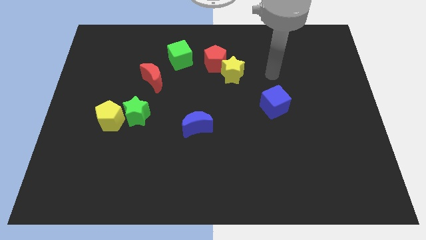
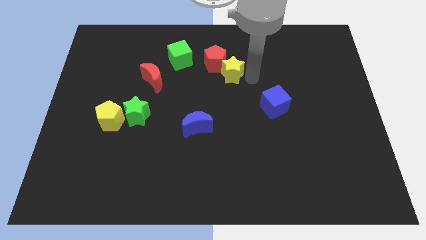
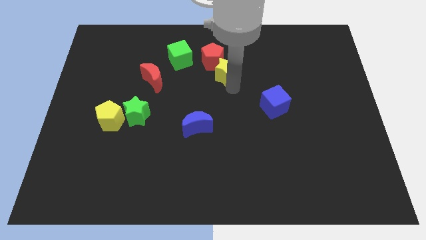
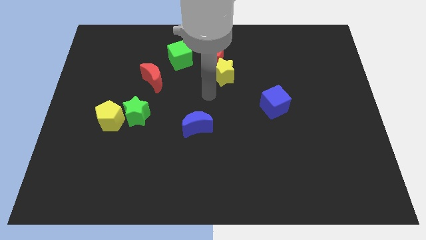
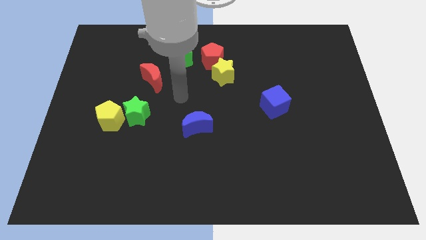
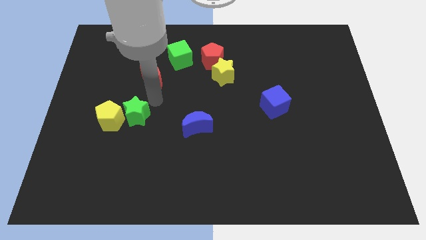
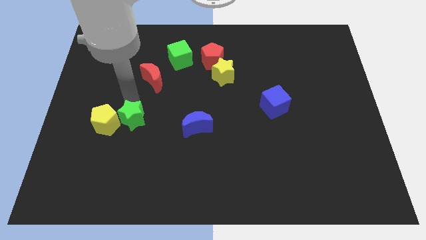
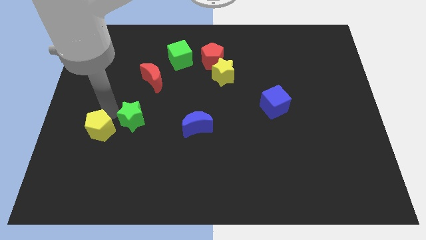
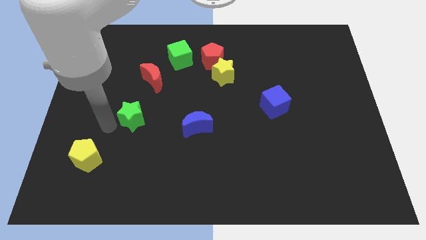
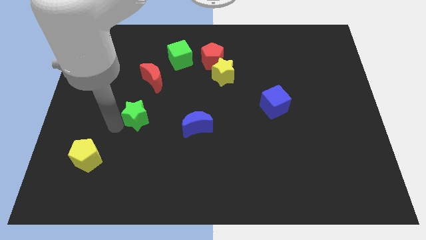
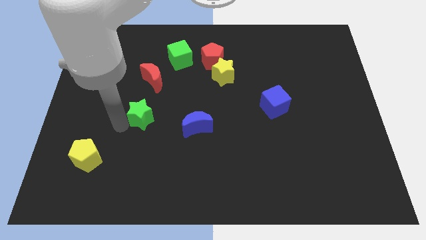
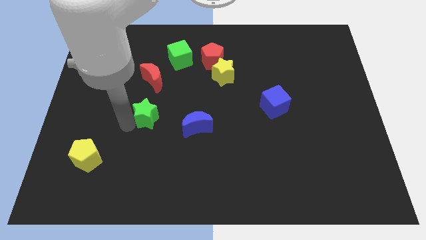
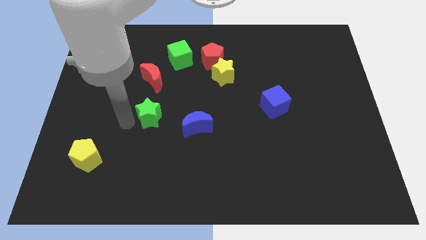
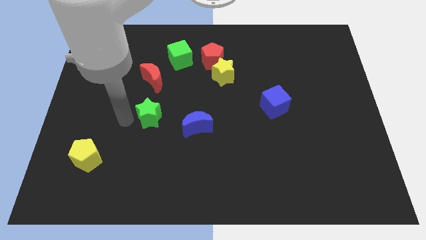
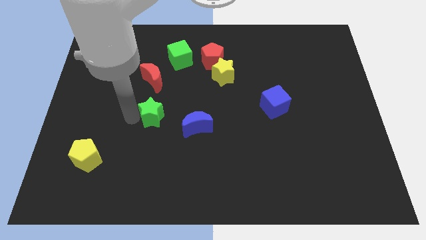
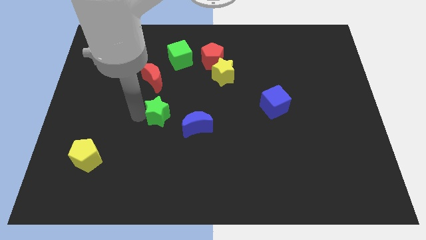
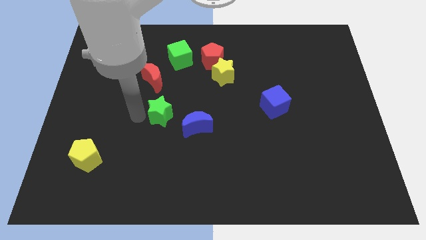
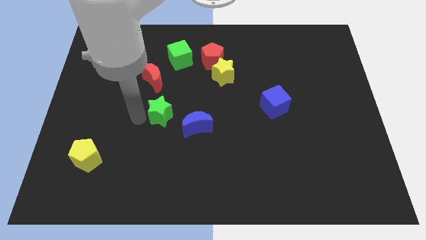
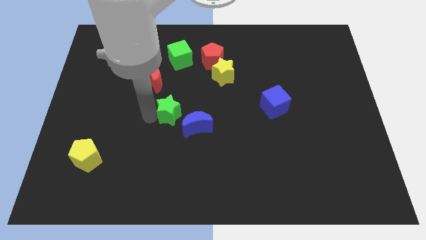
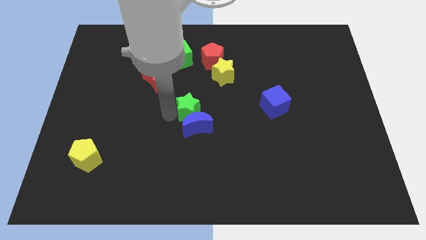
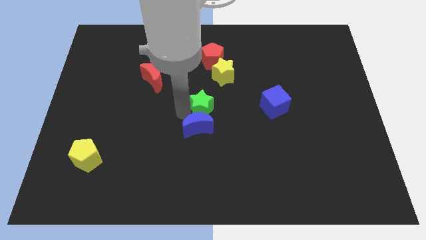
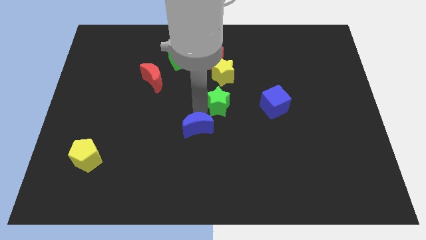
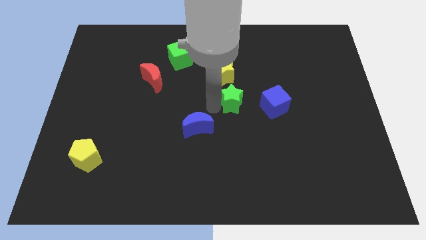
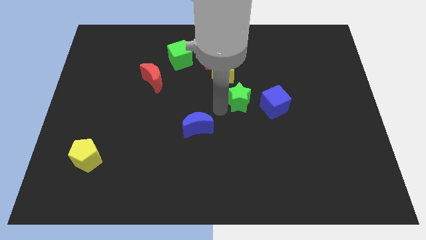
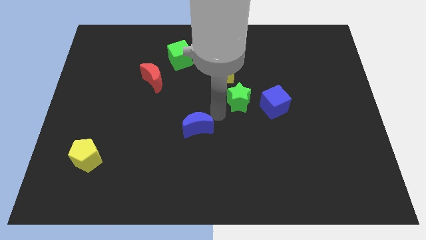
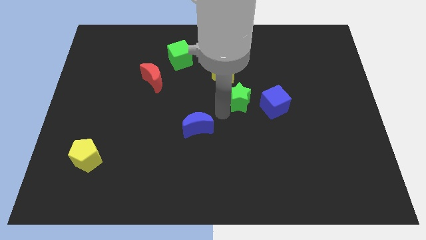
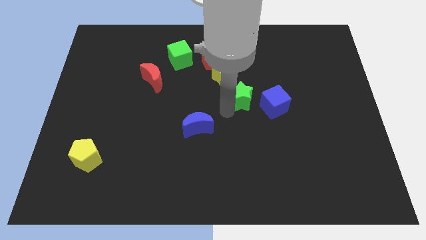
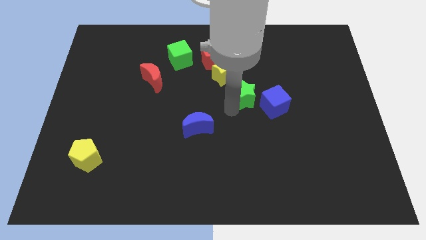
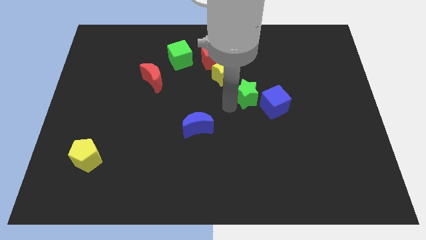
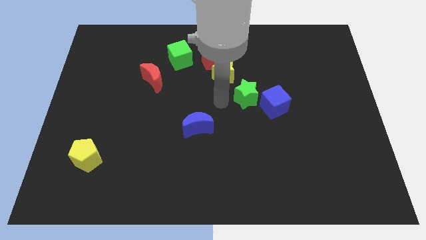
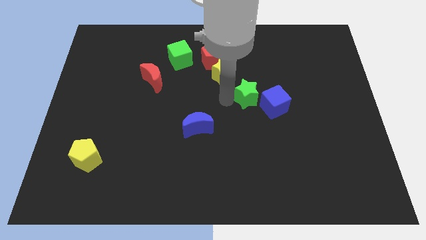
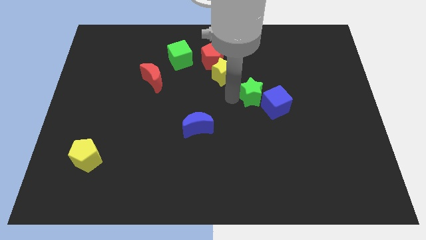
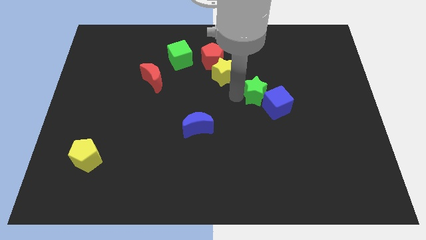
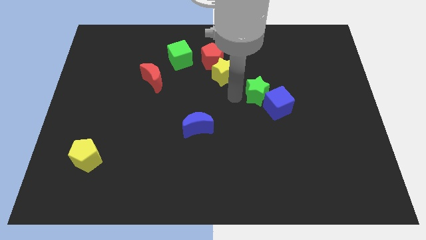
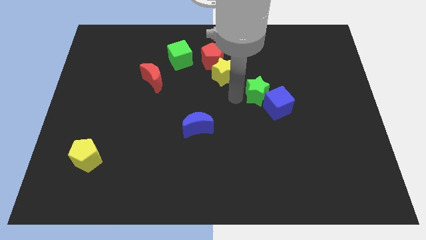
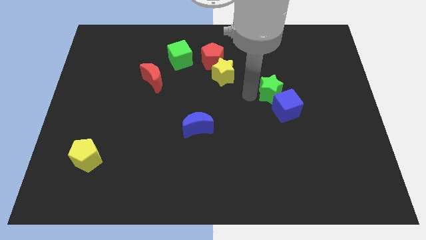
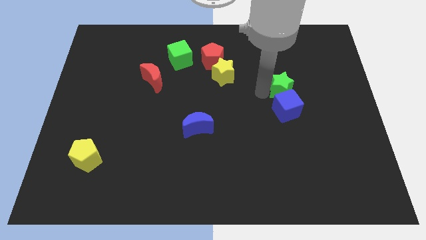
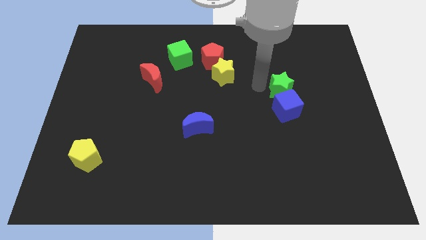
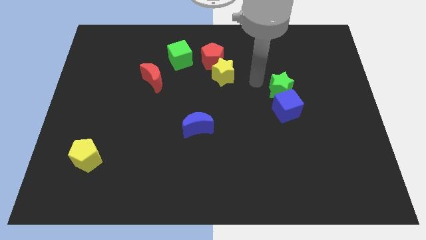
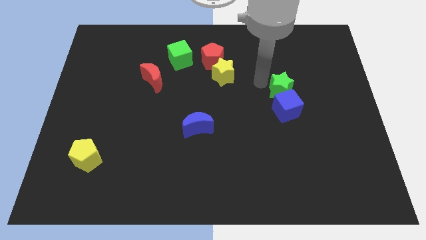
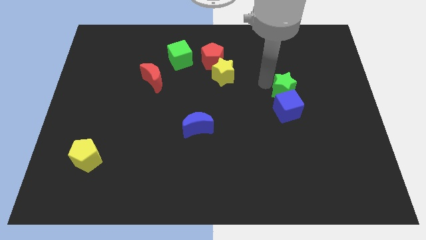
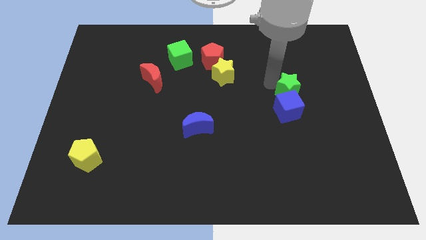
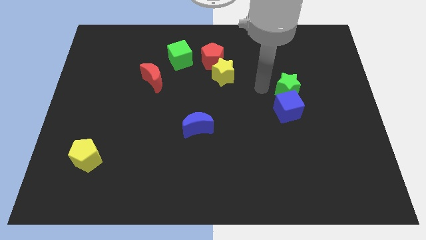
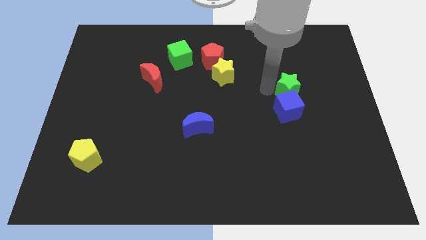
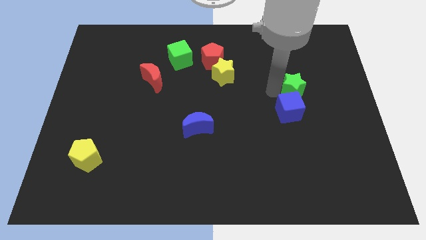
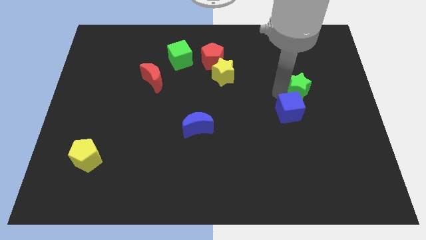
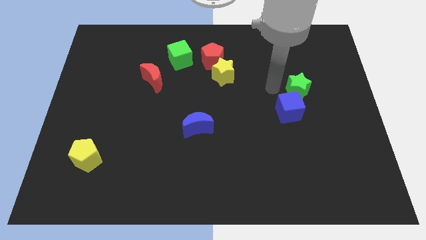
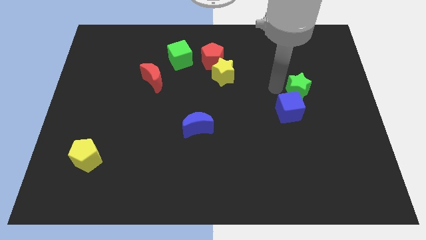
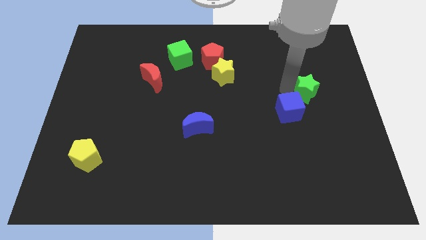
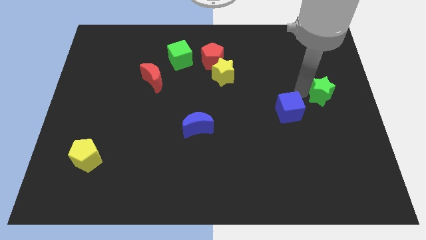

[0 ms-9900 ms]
slide the green star to the right side of the board

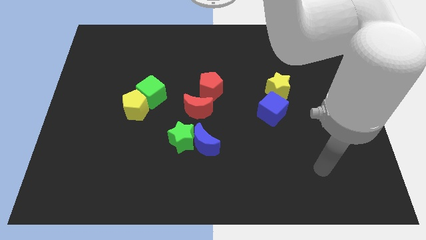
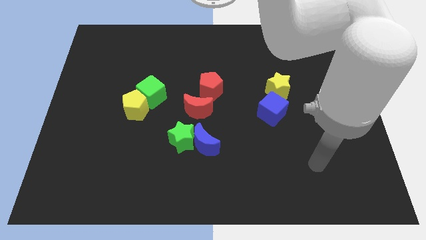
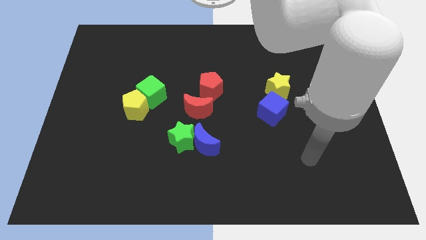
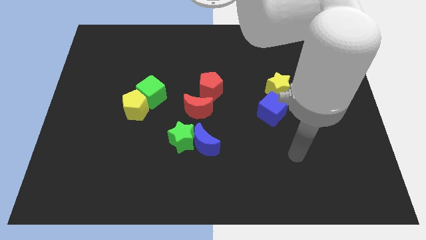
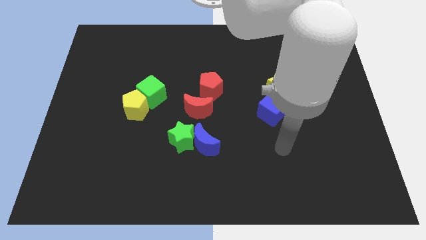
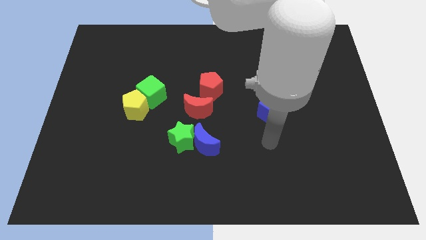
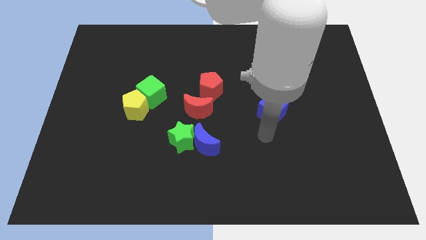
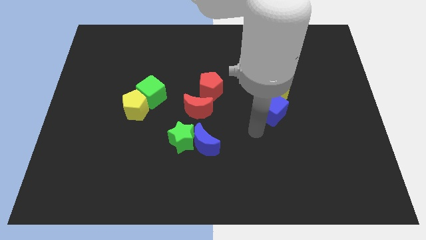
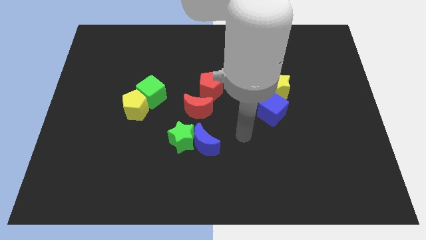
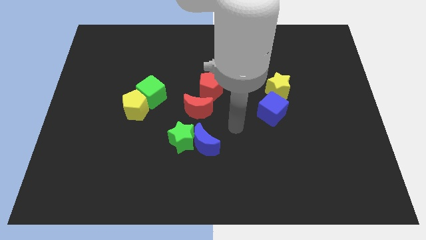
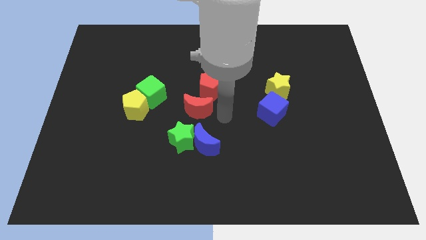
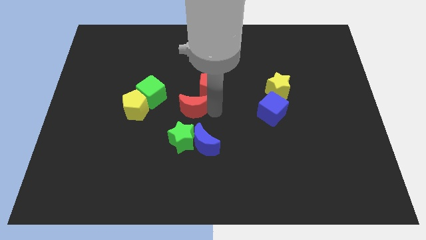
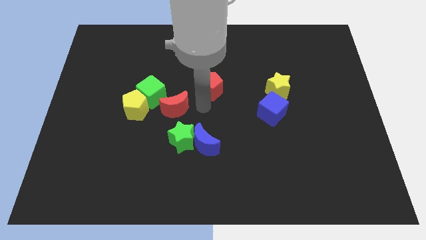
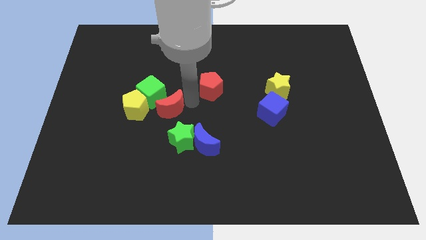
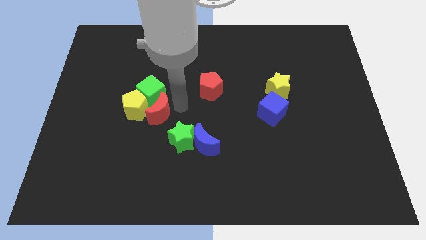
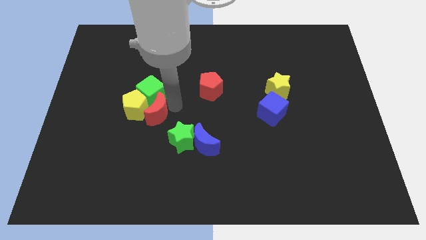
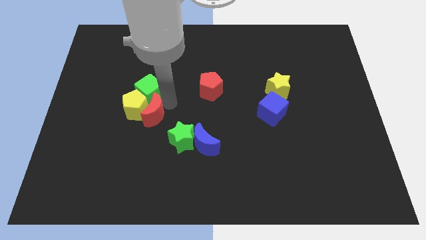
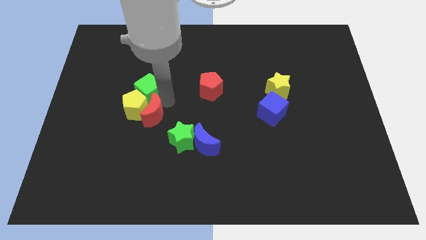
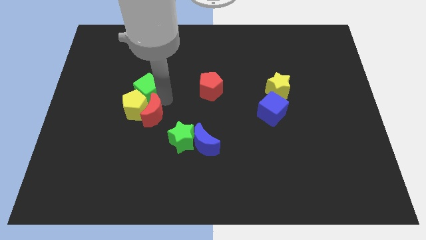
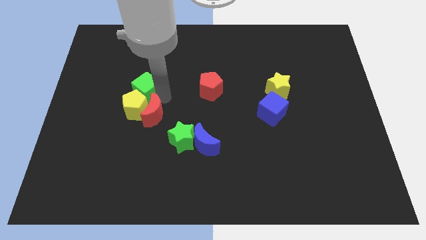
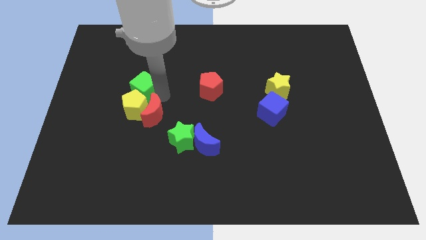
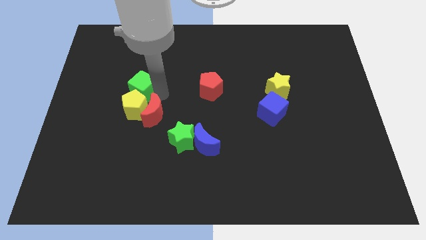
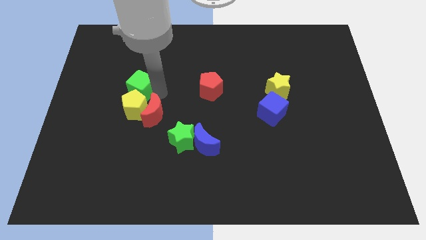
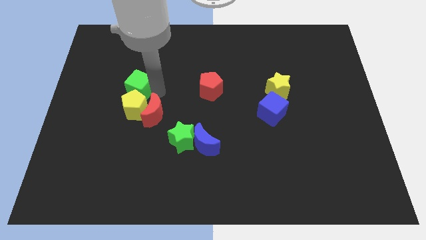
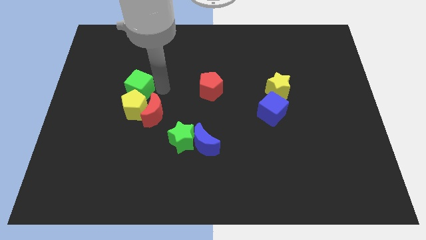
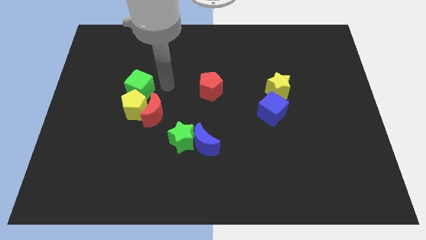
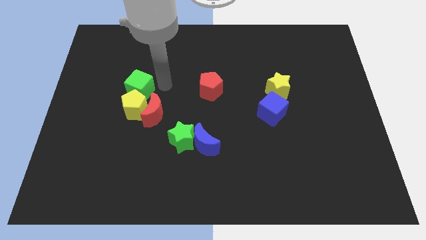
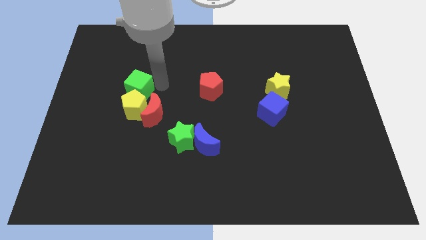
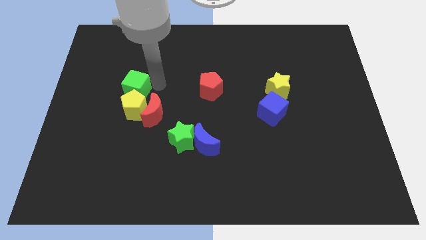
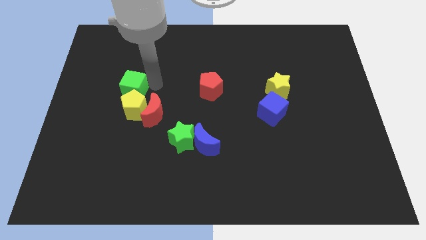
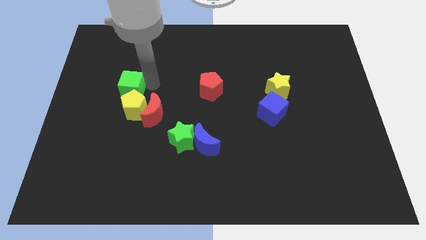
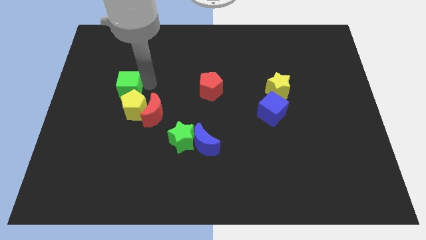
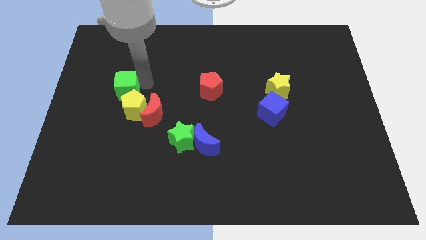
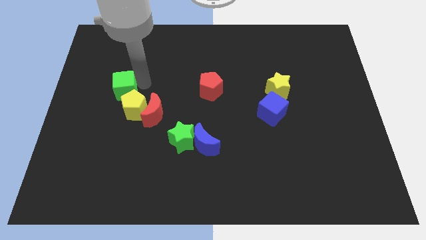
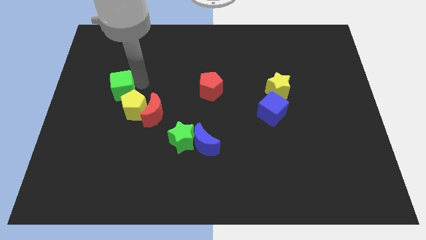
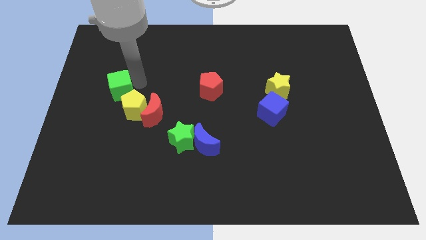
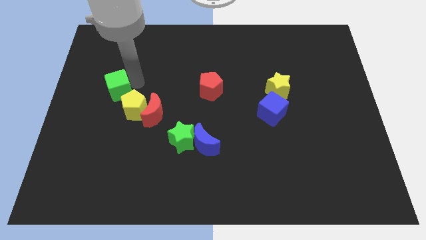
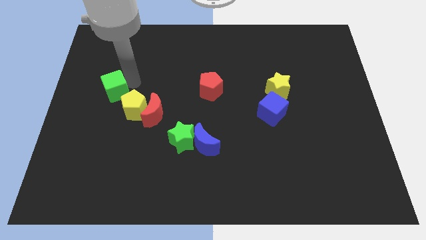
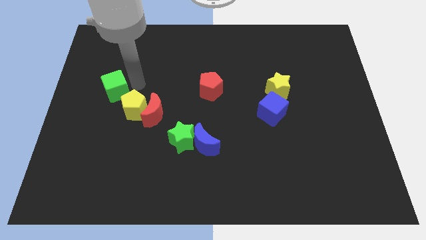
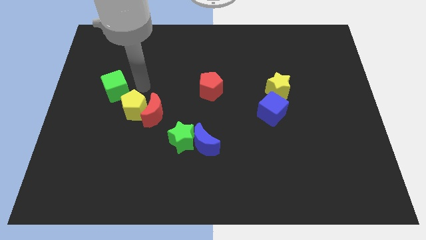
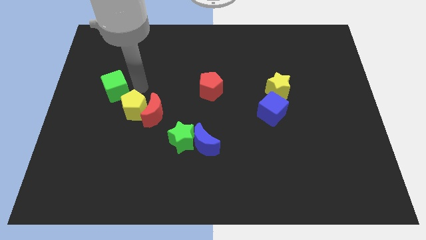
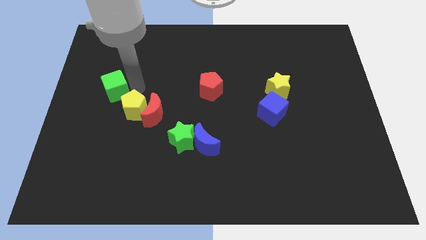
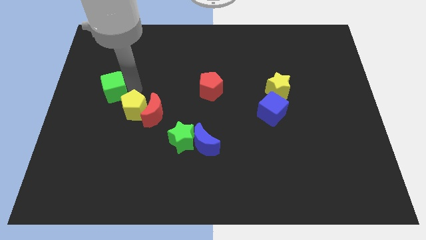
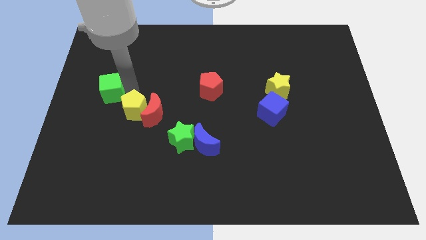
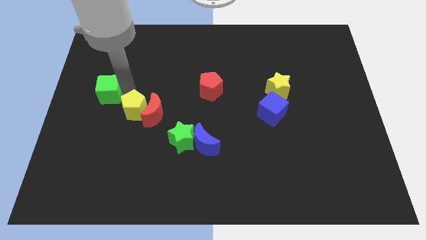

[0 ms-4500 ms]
slide the green cube to the center left
